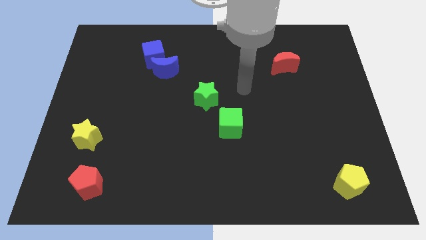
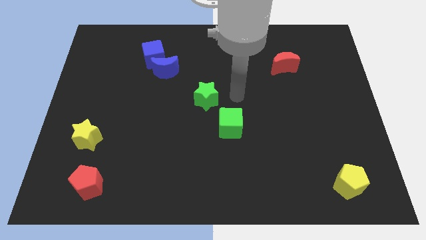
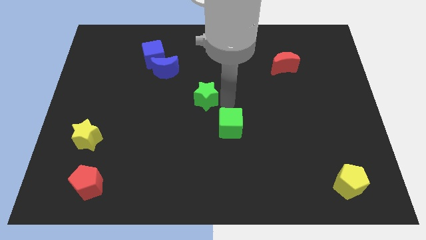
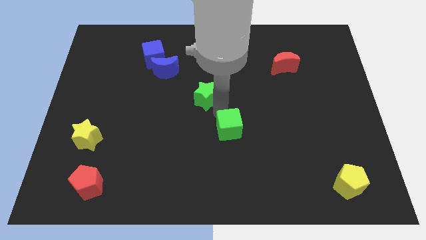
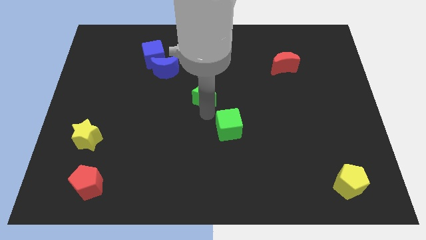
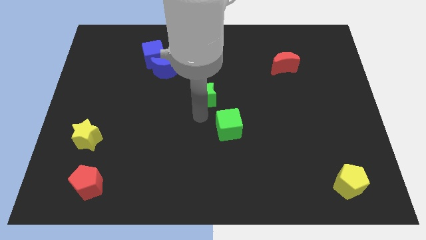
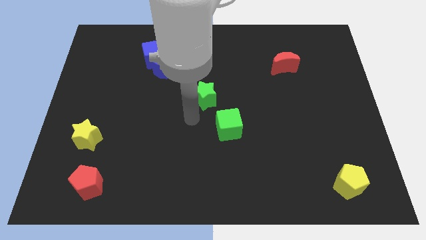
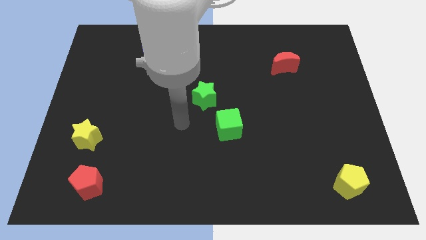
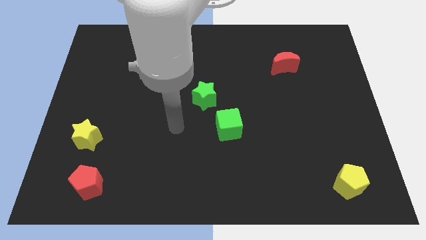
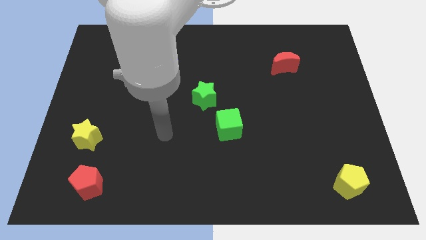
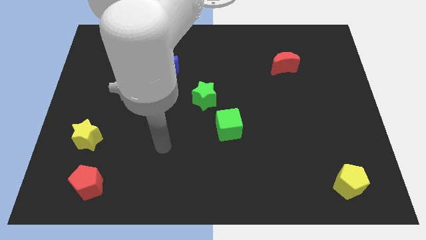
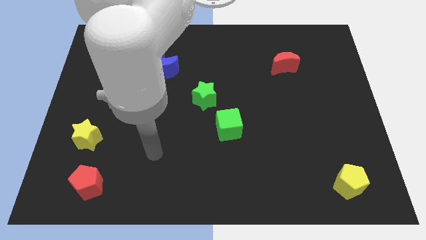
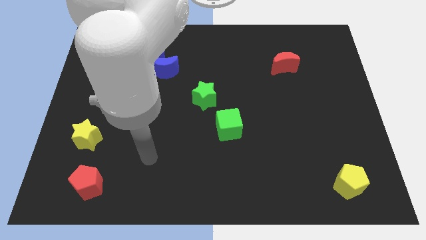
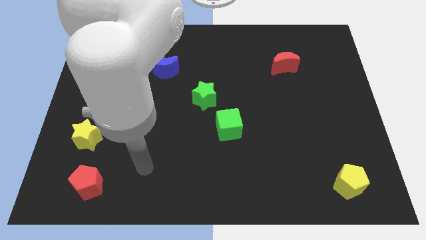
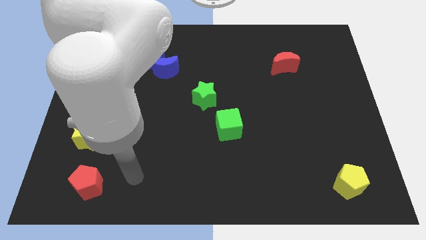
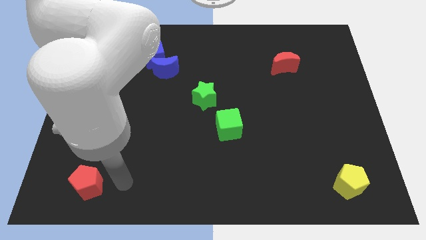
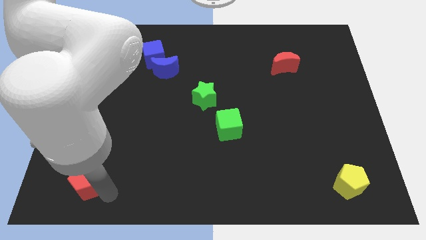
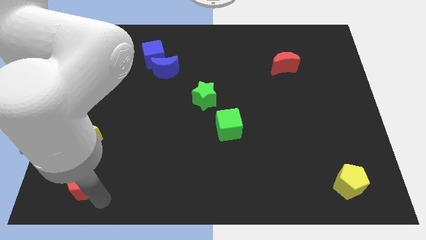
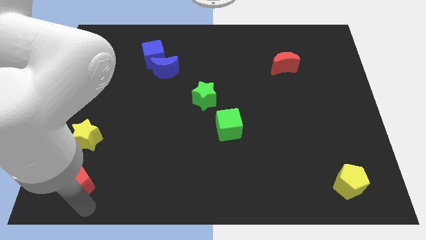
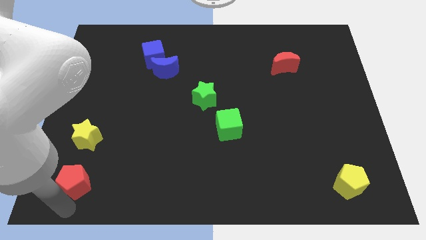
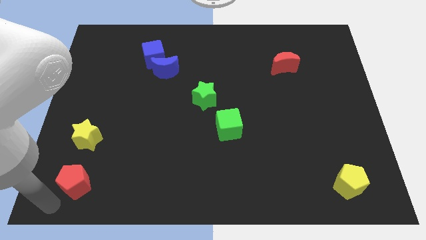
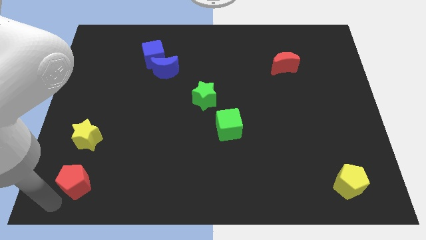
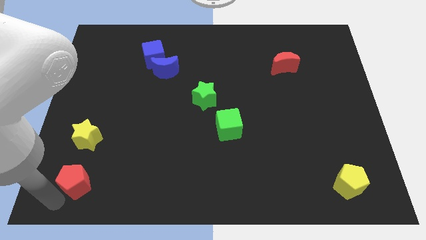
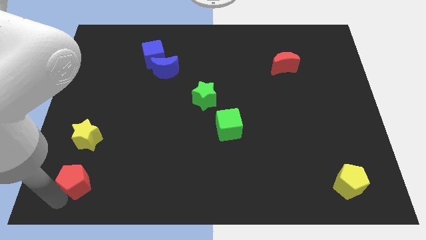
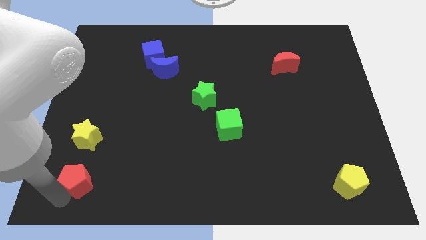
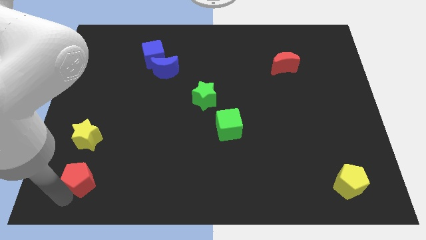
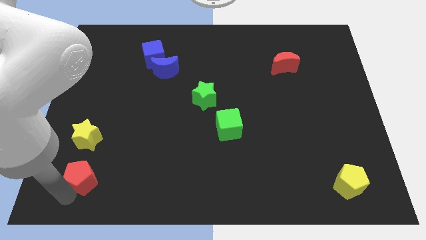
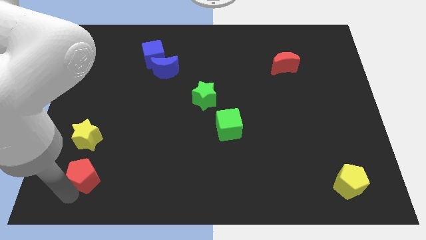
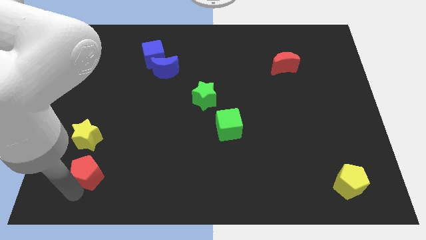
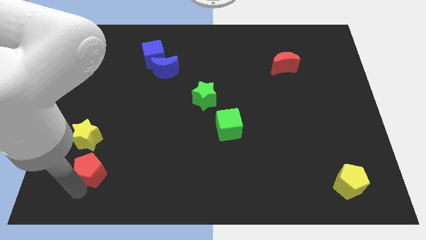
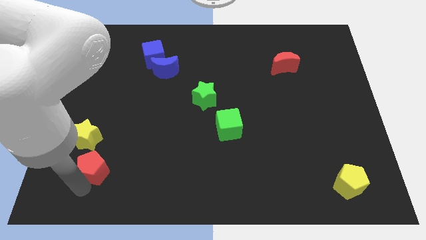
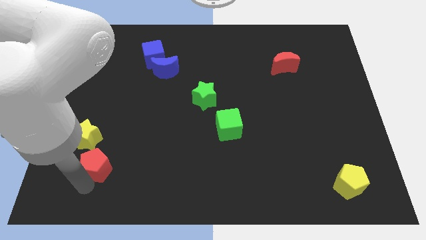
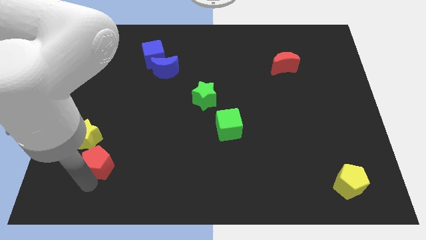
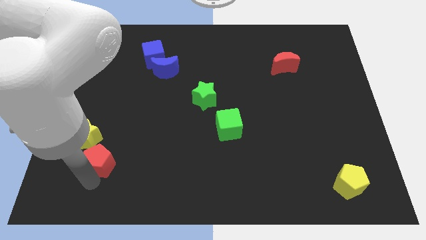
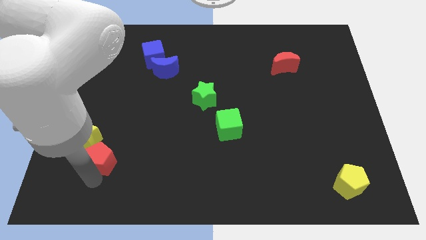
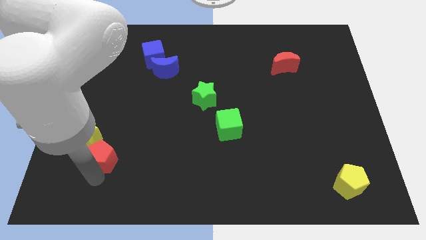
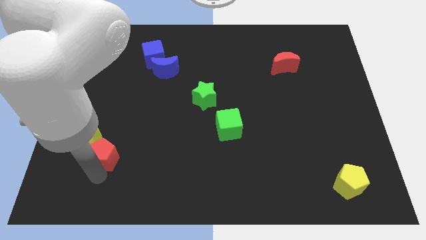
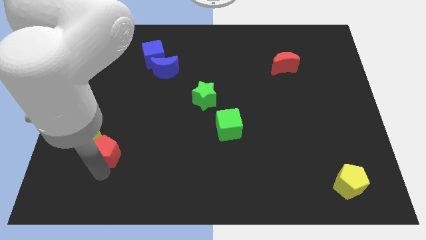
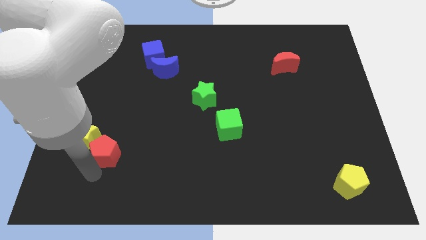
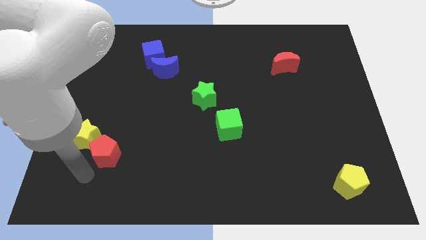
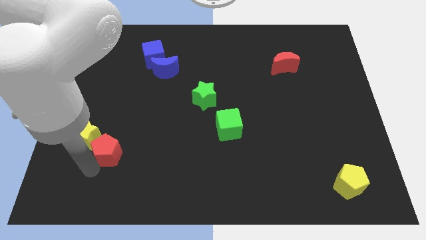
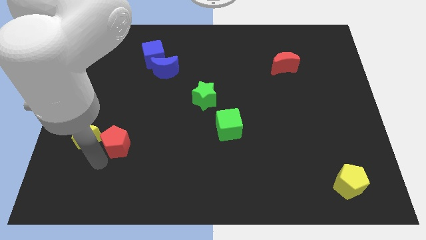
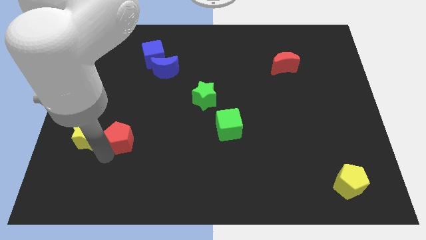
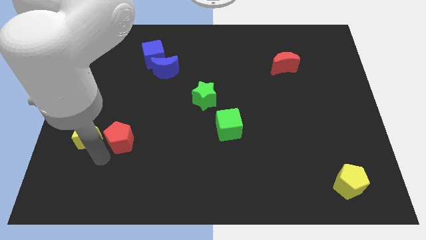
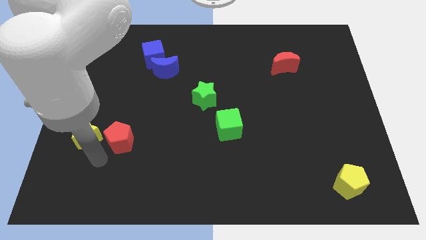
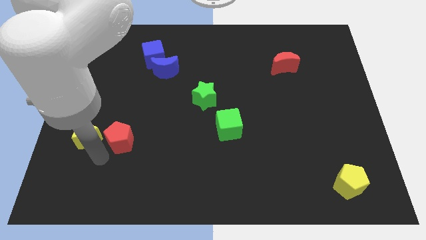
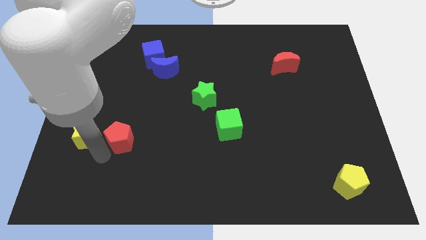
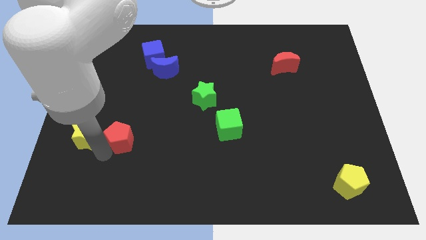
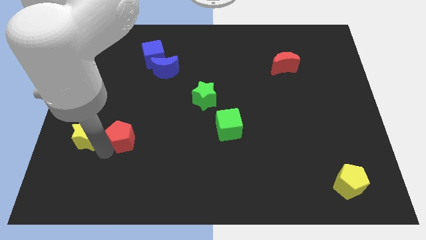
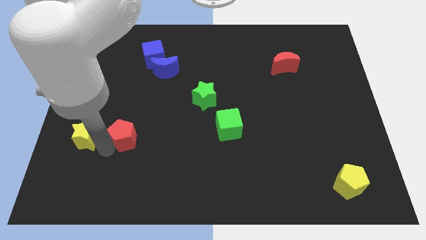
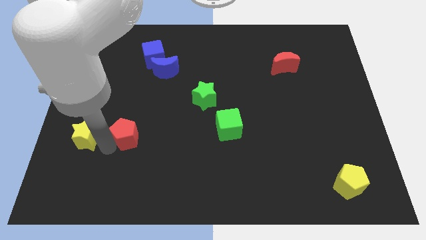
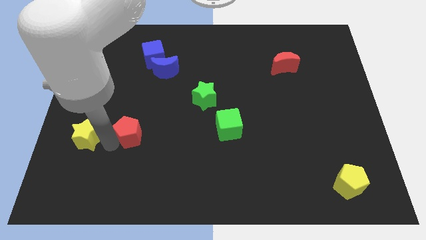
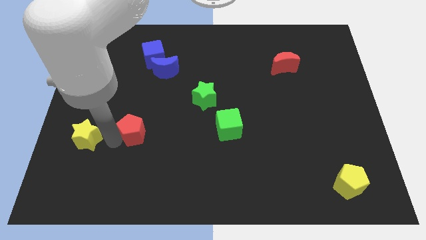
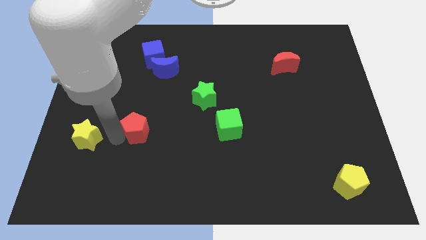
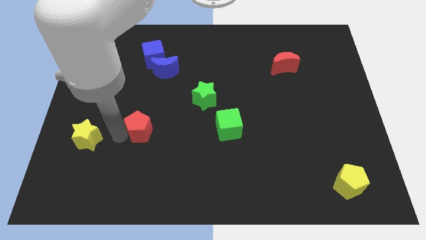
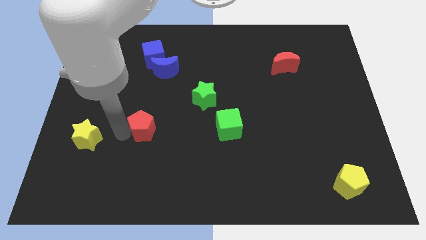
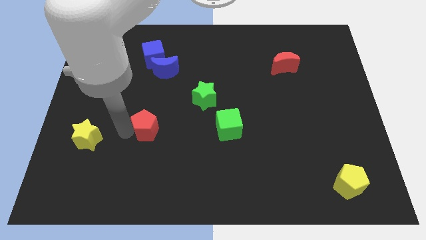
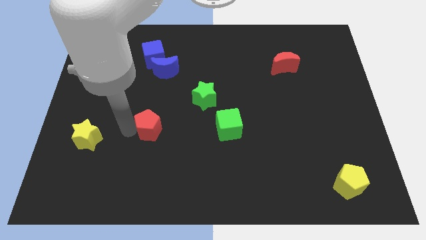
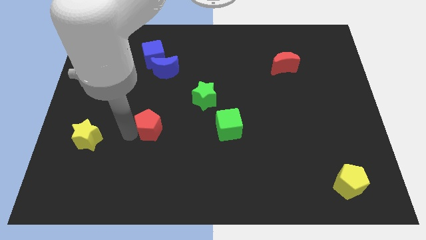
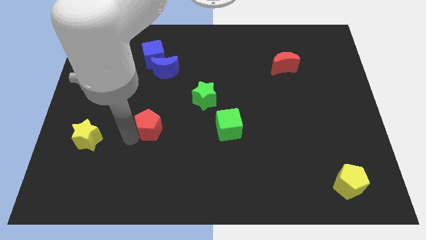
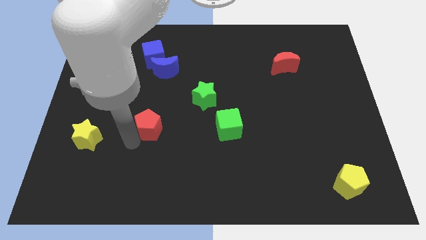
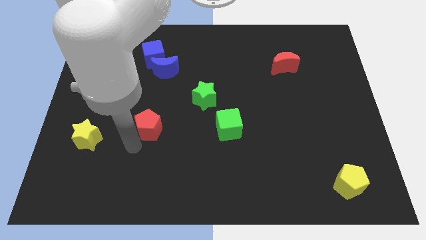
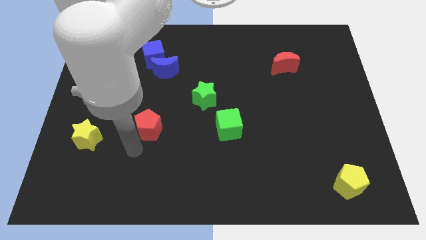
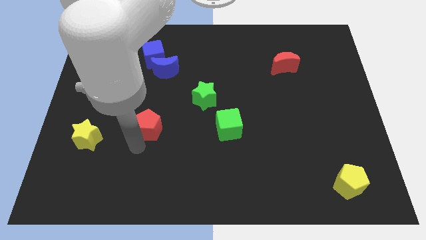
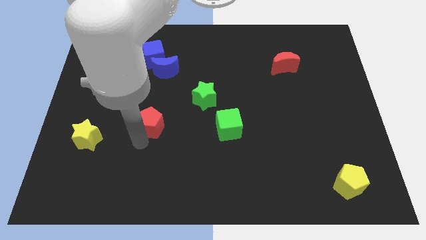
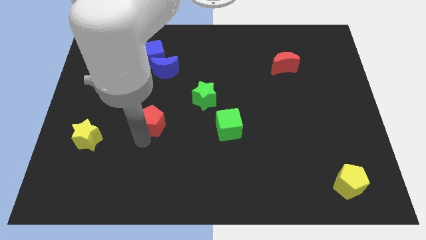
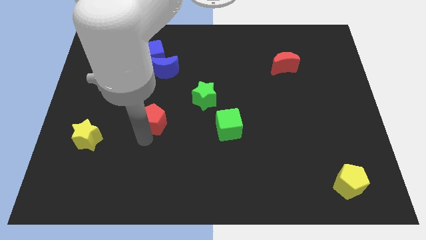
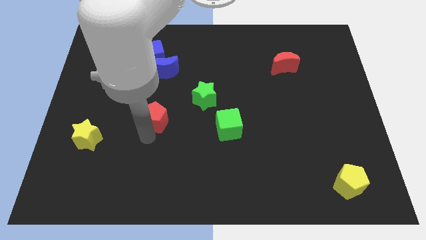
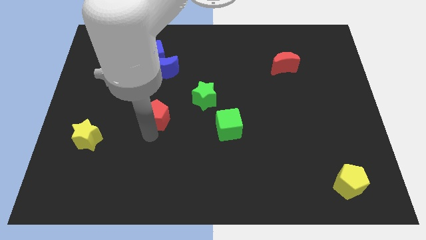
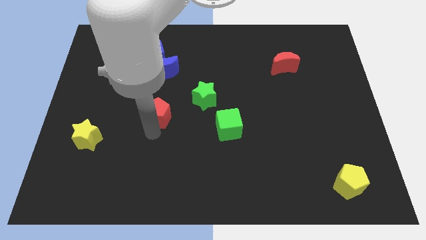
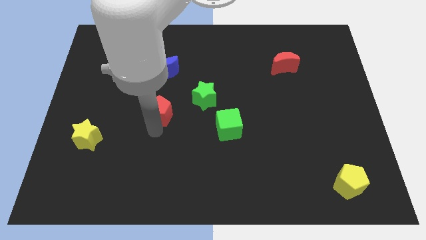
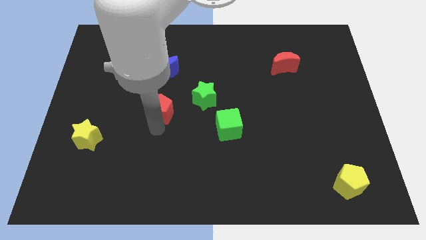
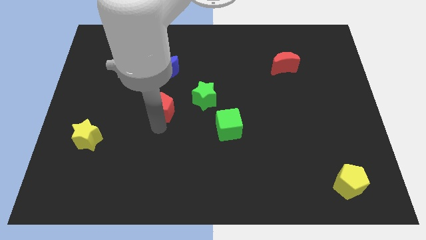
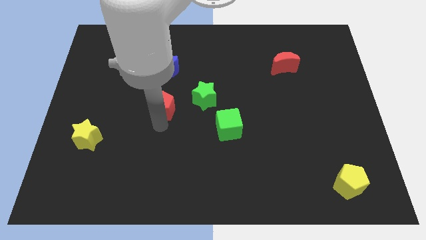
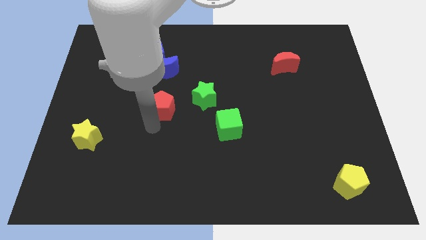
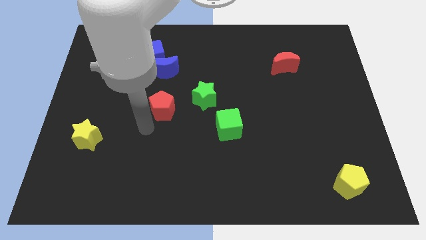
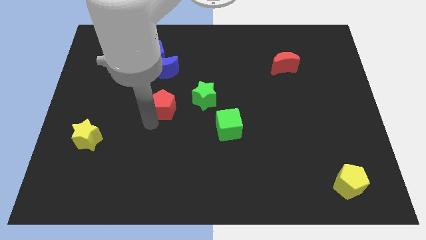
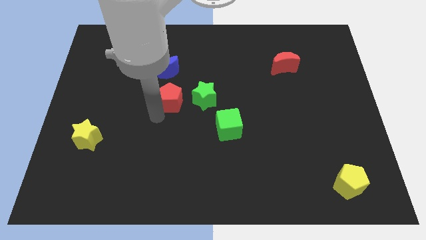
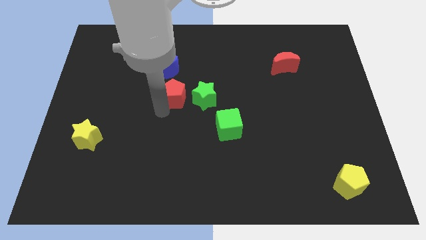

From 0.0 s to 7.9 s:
move the red pentagon to the bottom right side of the blue moon
